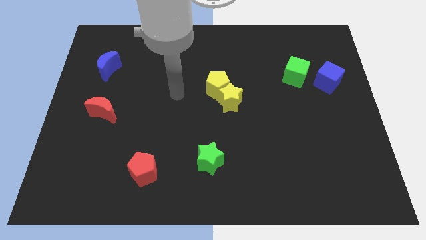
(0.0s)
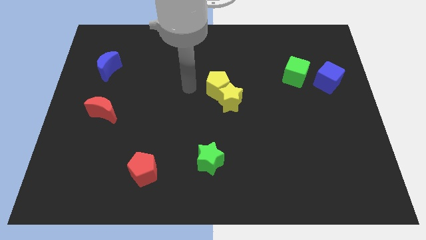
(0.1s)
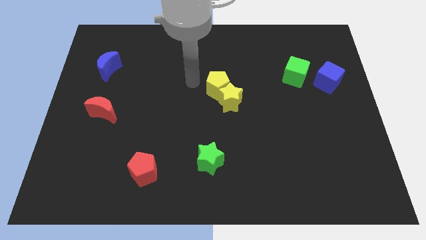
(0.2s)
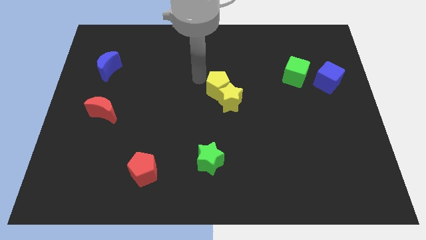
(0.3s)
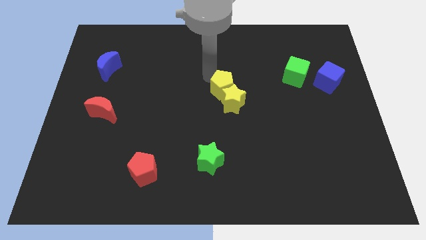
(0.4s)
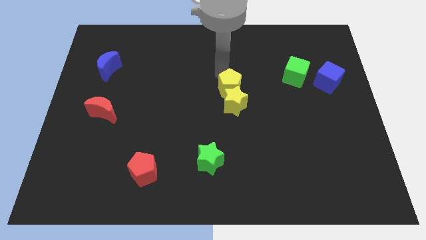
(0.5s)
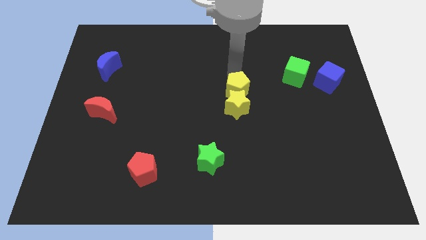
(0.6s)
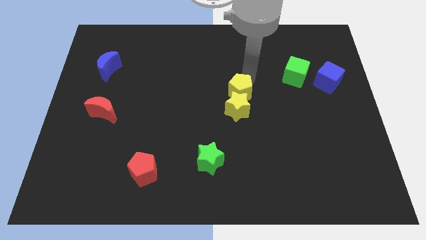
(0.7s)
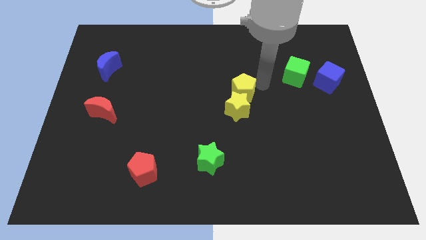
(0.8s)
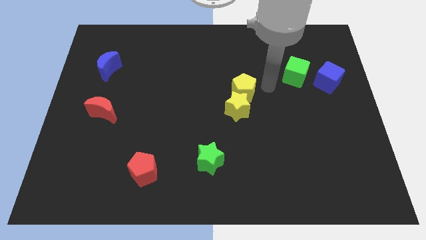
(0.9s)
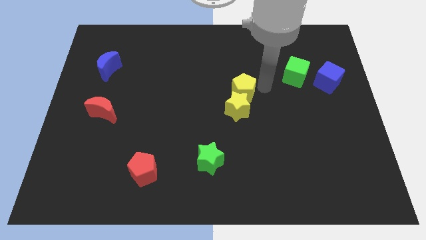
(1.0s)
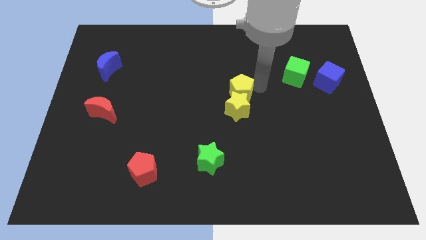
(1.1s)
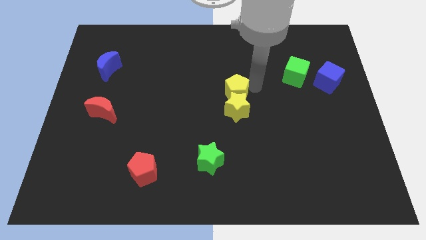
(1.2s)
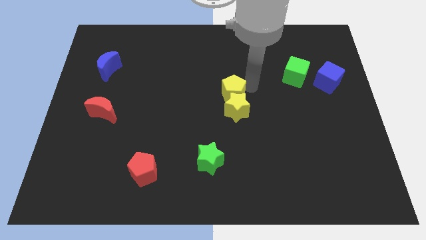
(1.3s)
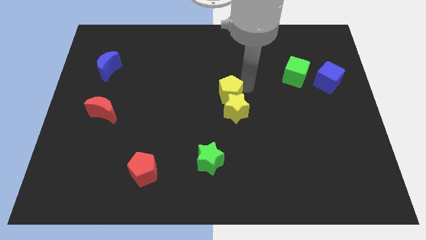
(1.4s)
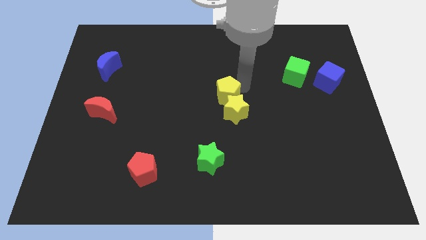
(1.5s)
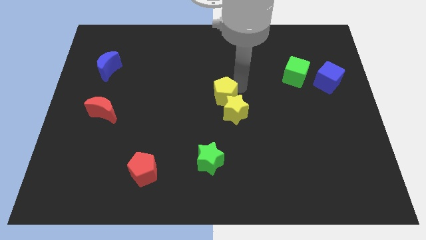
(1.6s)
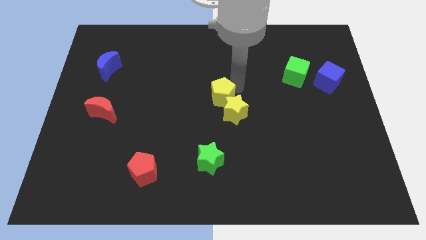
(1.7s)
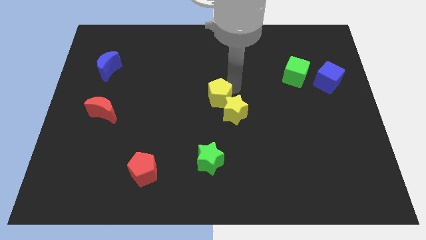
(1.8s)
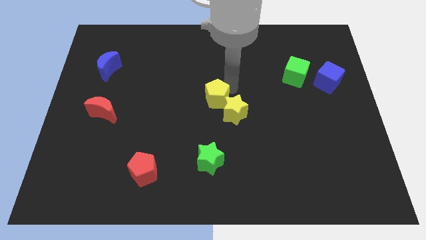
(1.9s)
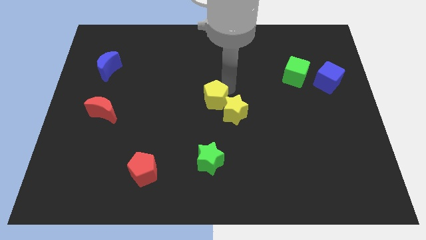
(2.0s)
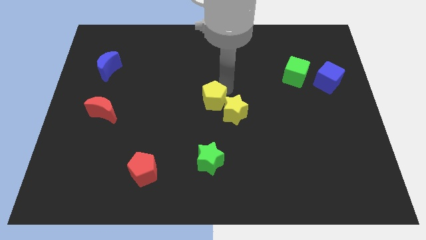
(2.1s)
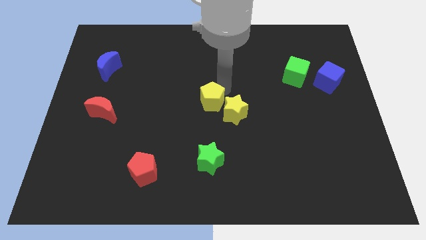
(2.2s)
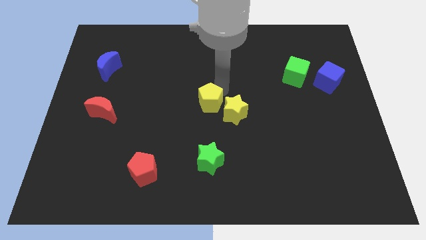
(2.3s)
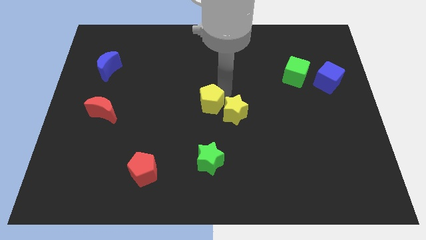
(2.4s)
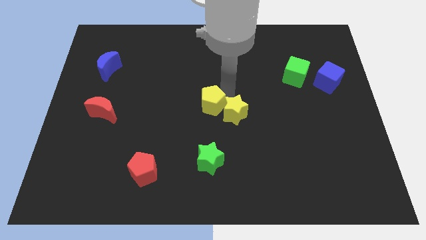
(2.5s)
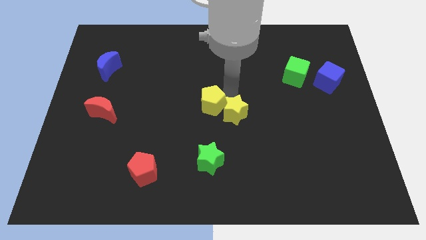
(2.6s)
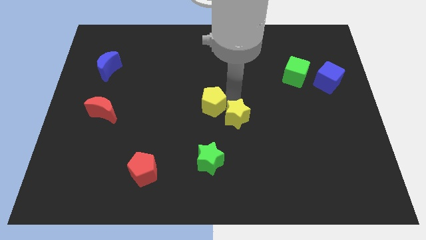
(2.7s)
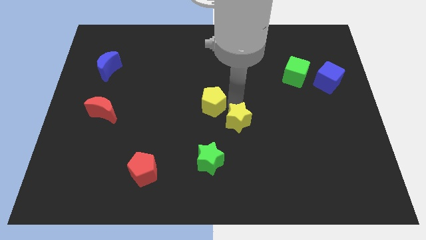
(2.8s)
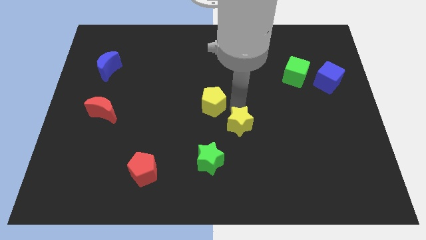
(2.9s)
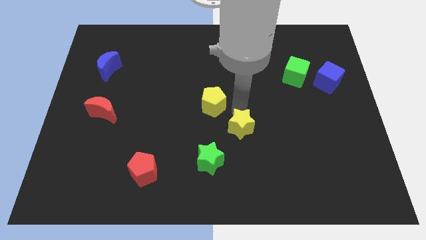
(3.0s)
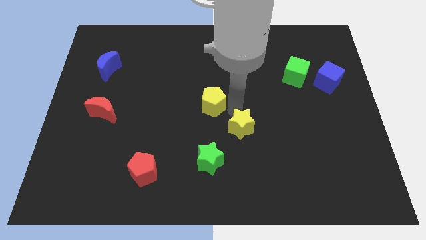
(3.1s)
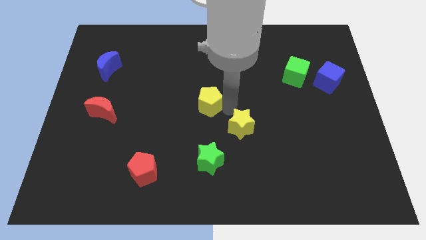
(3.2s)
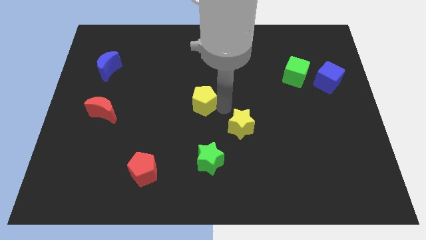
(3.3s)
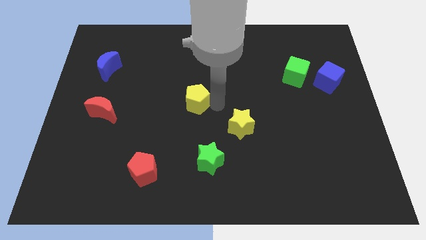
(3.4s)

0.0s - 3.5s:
push the yellow pentagon somewhat down and left diagonally

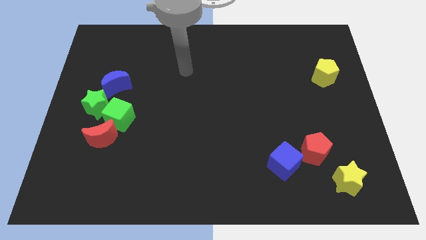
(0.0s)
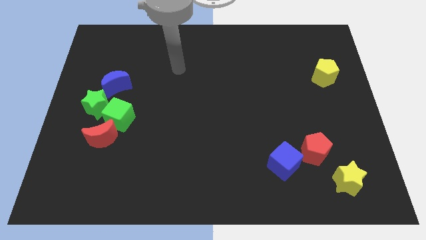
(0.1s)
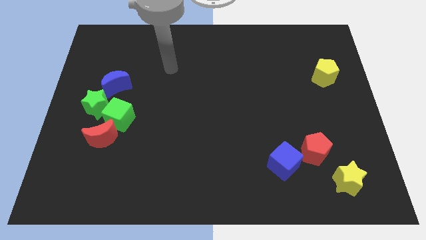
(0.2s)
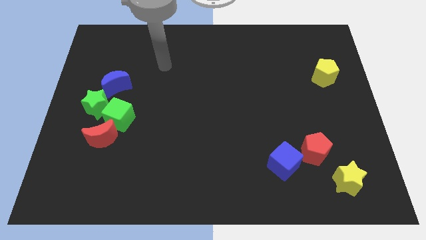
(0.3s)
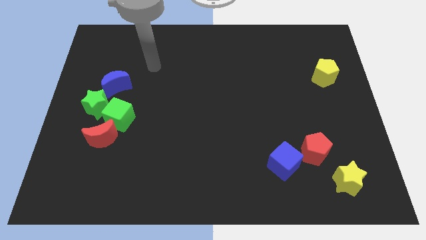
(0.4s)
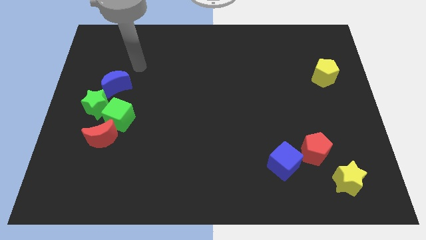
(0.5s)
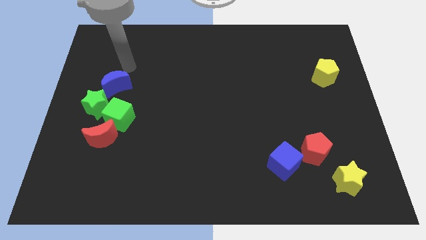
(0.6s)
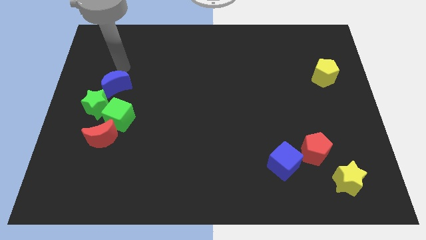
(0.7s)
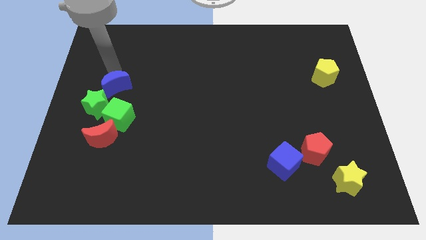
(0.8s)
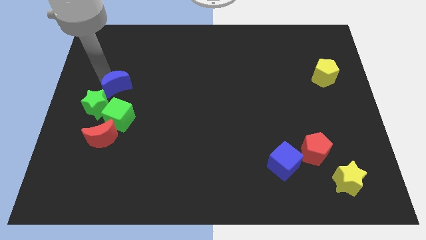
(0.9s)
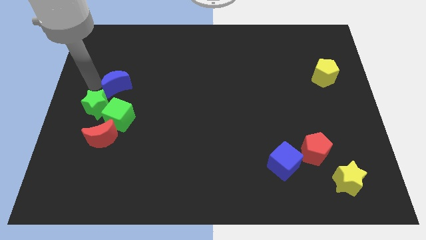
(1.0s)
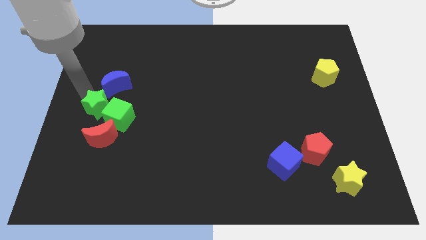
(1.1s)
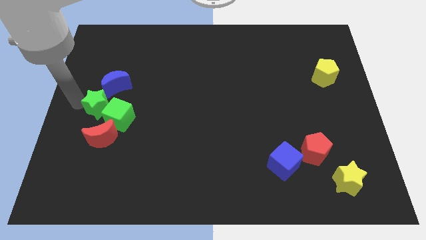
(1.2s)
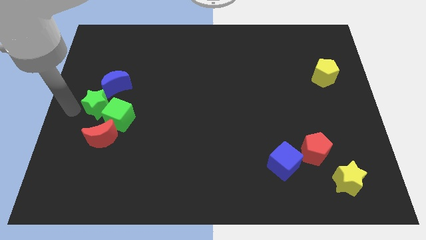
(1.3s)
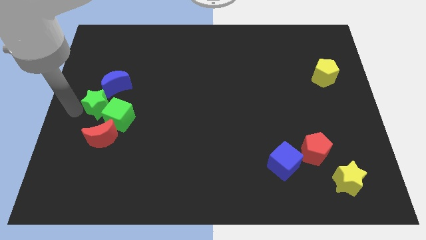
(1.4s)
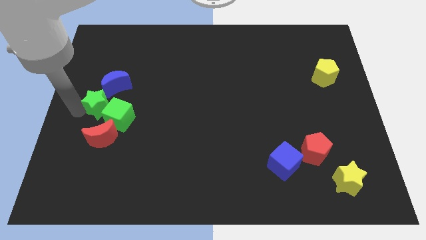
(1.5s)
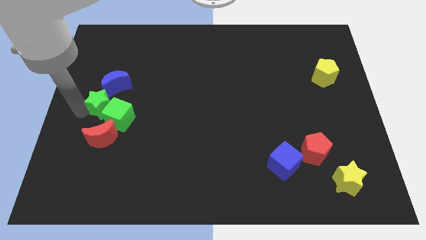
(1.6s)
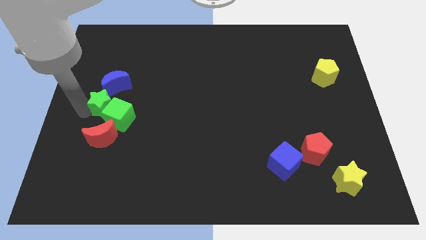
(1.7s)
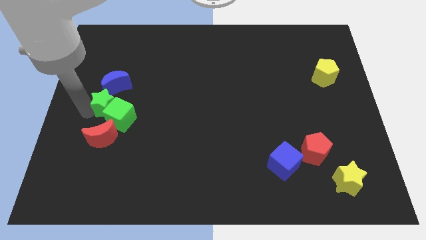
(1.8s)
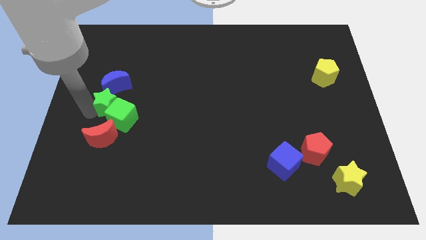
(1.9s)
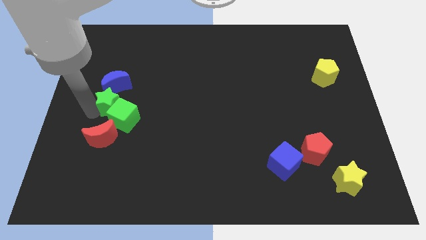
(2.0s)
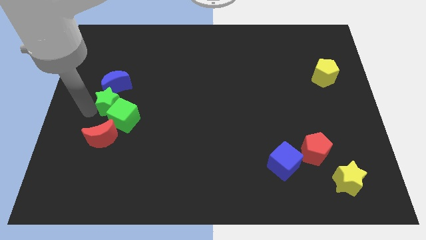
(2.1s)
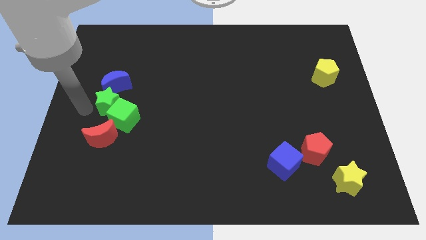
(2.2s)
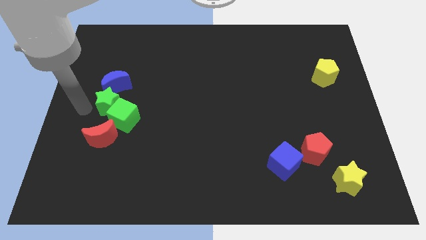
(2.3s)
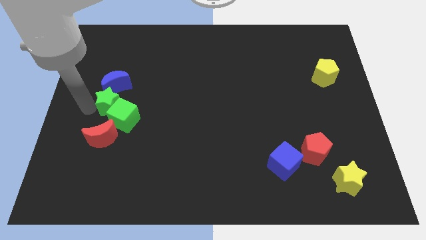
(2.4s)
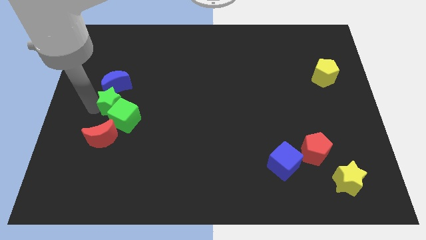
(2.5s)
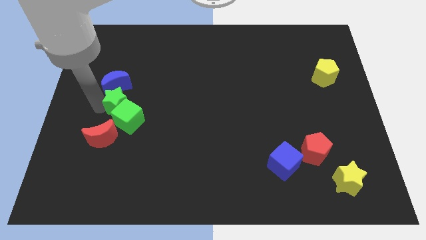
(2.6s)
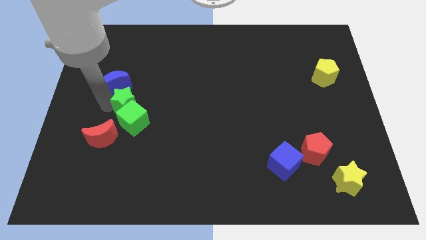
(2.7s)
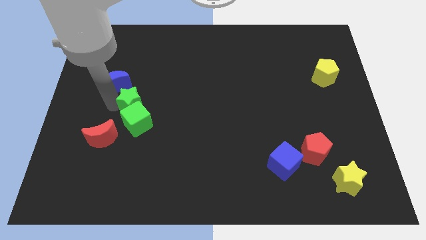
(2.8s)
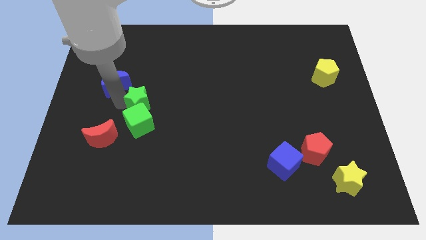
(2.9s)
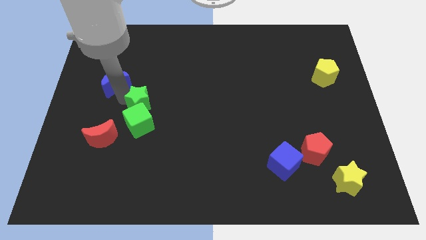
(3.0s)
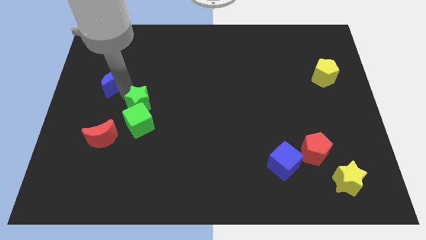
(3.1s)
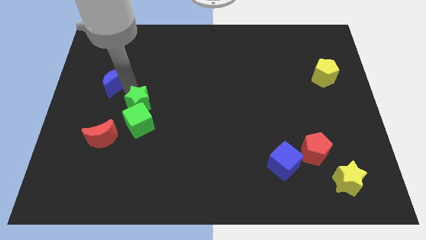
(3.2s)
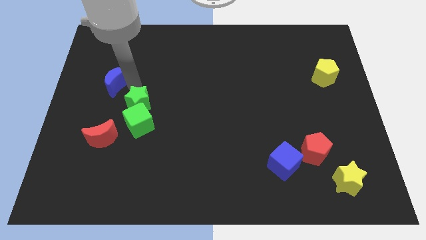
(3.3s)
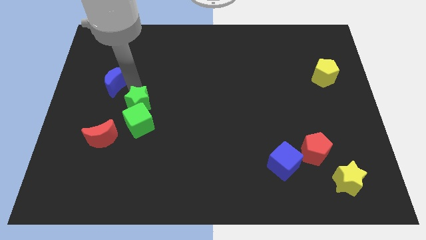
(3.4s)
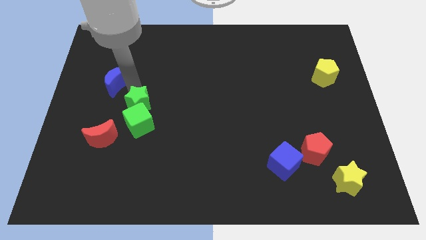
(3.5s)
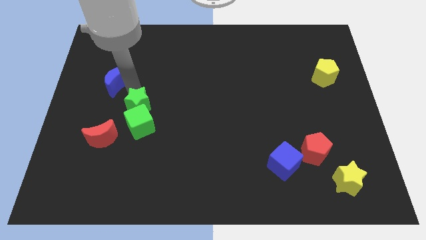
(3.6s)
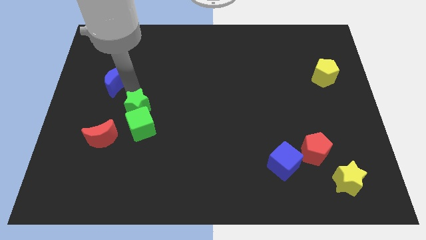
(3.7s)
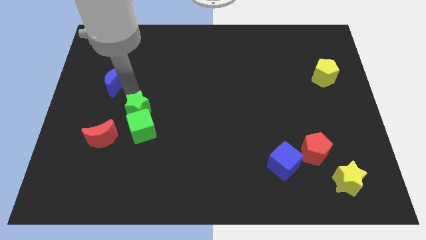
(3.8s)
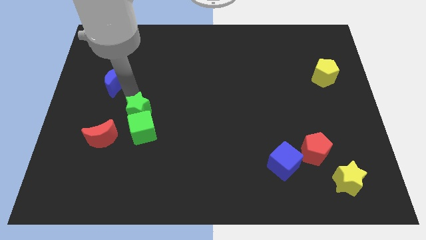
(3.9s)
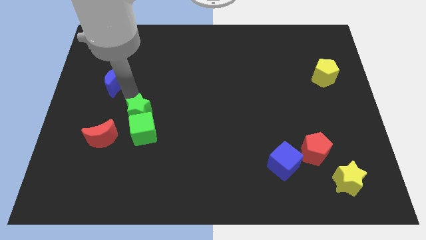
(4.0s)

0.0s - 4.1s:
slightly move the green star downwards and then right

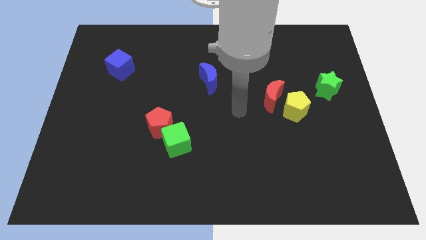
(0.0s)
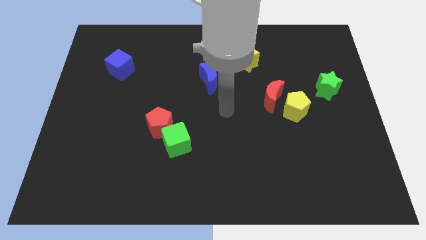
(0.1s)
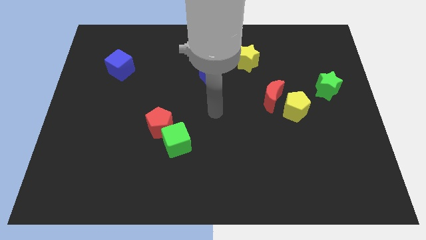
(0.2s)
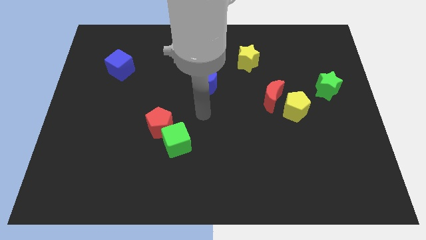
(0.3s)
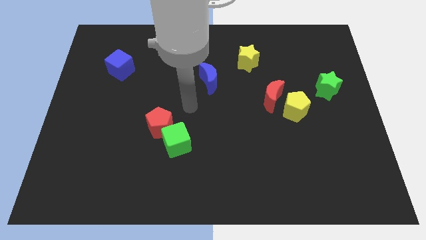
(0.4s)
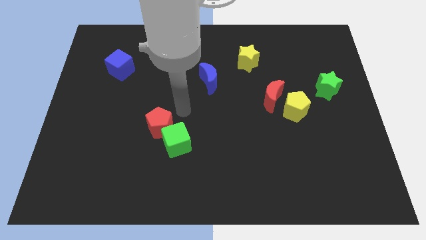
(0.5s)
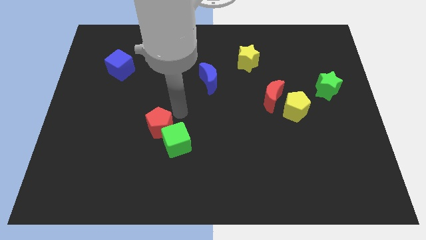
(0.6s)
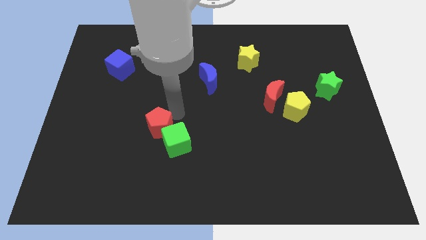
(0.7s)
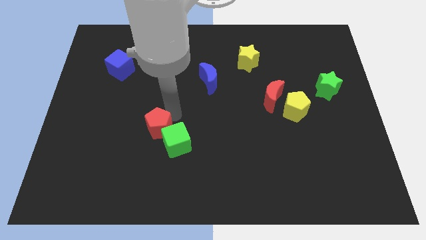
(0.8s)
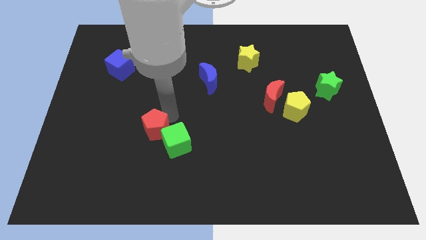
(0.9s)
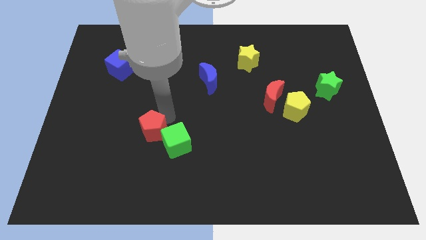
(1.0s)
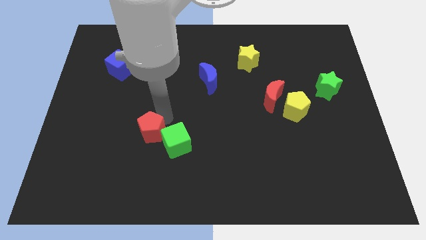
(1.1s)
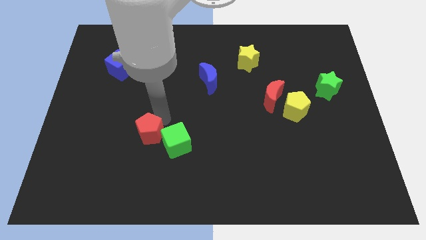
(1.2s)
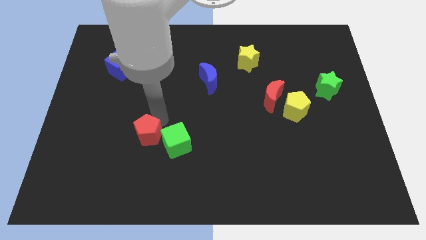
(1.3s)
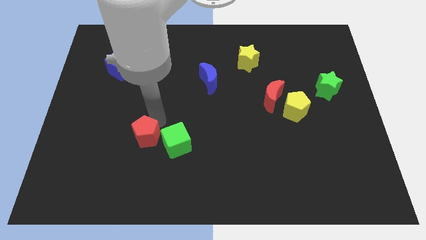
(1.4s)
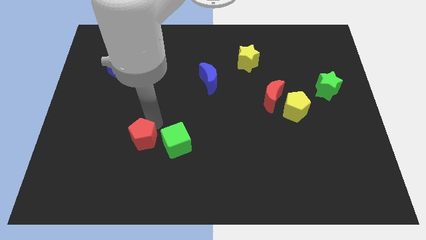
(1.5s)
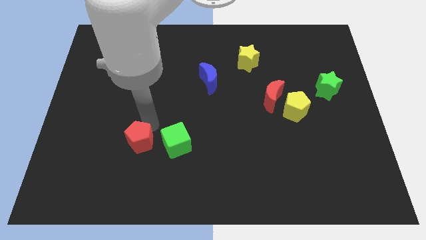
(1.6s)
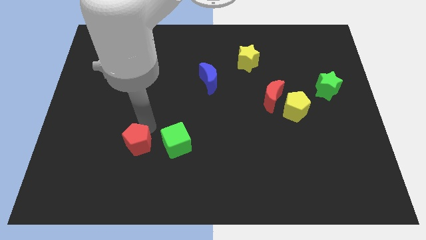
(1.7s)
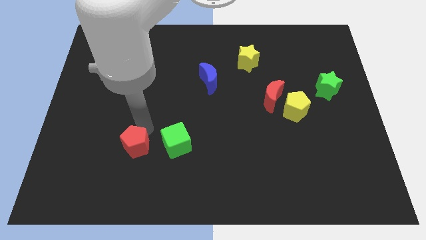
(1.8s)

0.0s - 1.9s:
slide the red pentagon down and left a little
